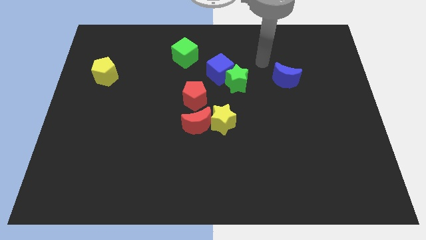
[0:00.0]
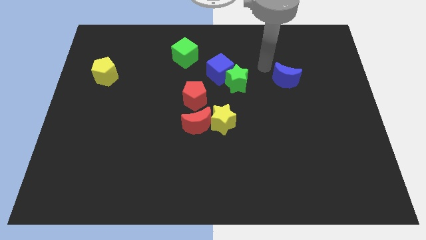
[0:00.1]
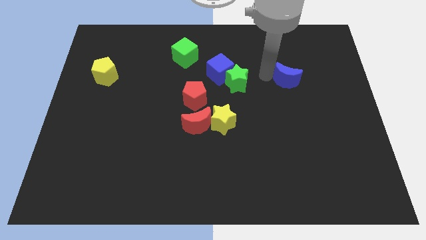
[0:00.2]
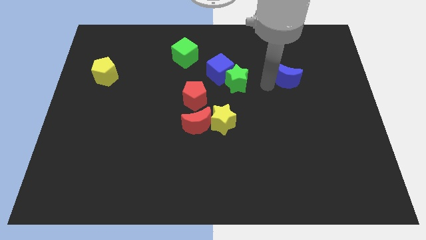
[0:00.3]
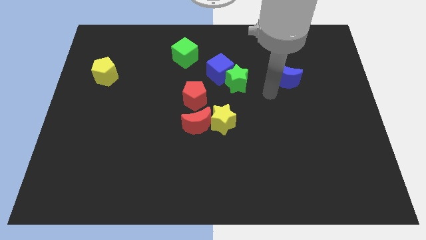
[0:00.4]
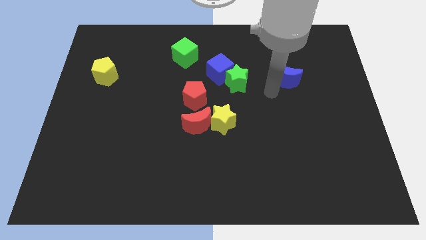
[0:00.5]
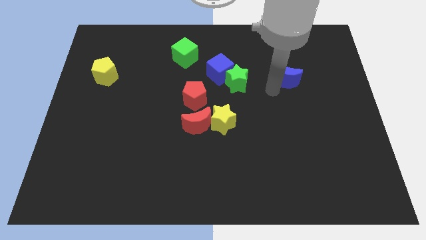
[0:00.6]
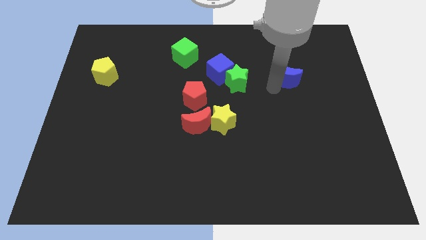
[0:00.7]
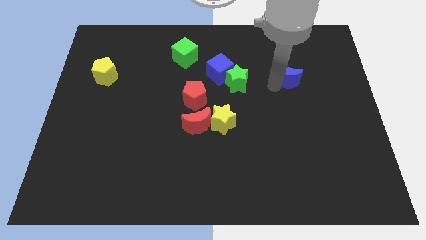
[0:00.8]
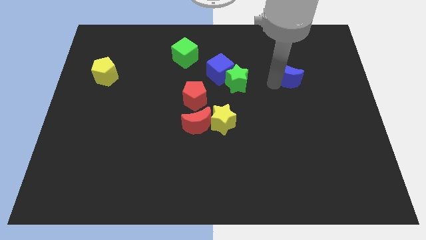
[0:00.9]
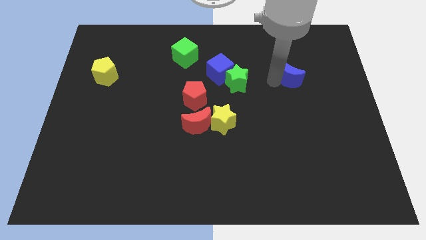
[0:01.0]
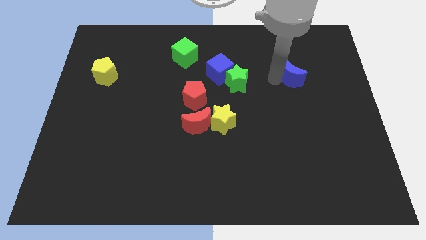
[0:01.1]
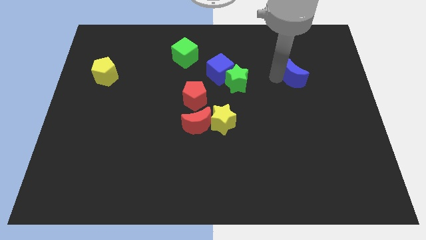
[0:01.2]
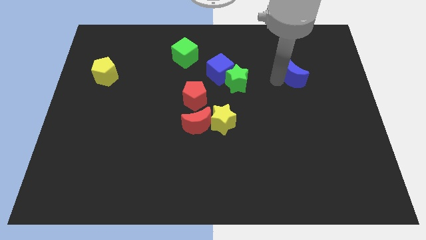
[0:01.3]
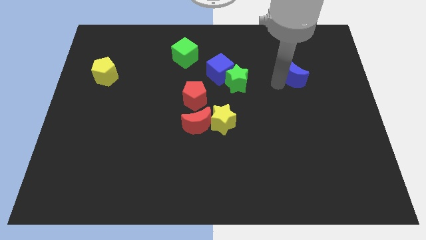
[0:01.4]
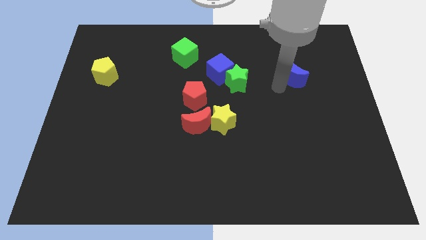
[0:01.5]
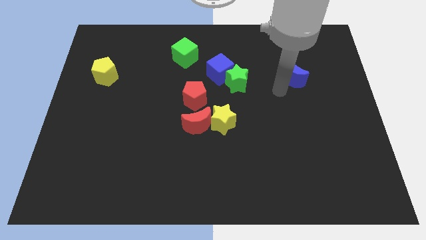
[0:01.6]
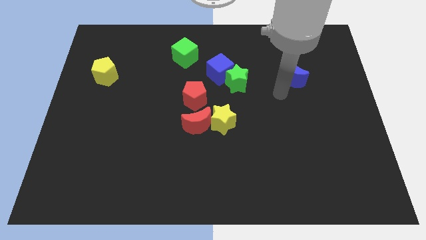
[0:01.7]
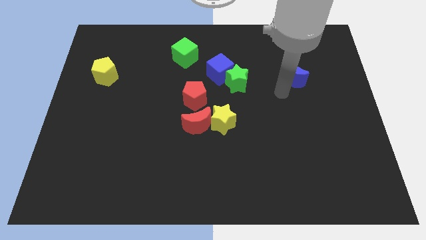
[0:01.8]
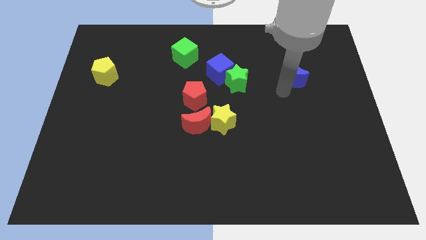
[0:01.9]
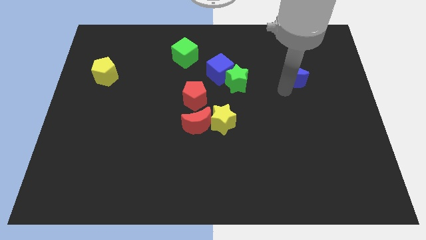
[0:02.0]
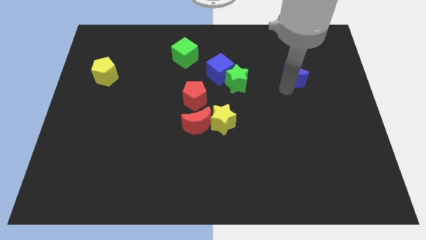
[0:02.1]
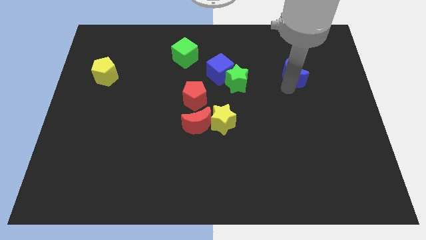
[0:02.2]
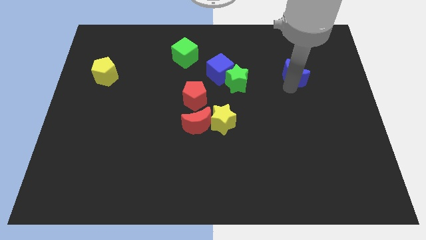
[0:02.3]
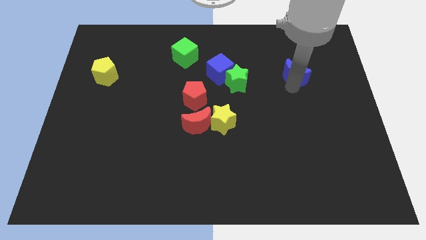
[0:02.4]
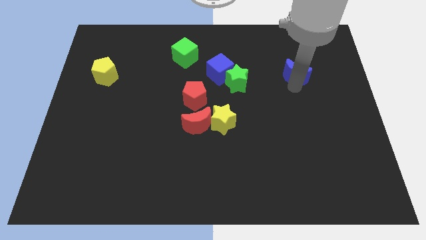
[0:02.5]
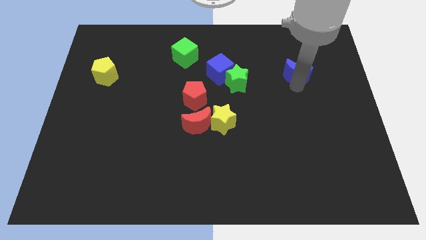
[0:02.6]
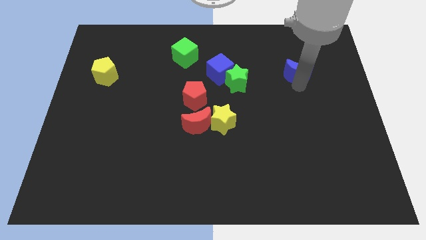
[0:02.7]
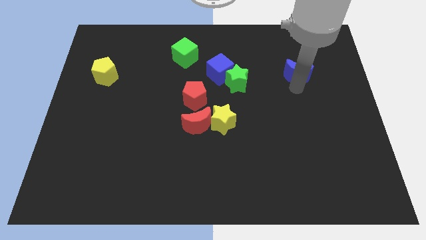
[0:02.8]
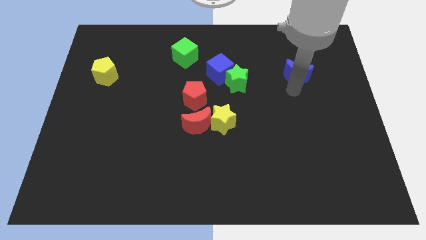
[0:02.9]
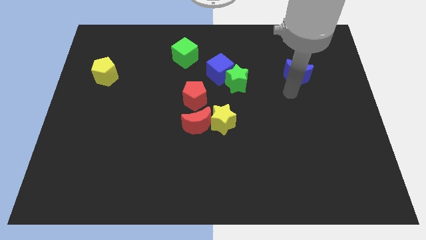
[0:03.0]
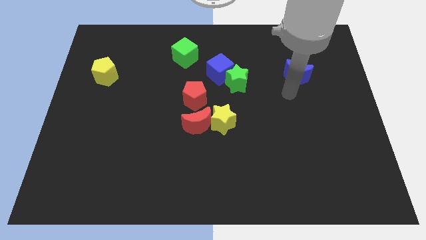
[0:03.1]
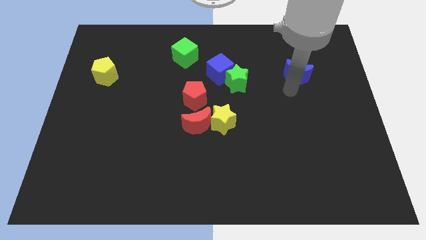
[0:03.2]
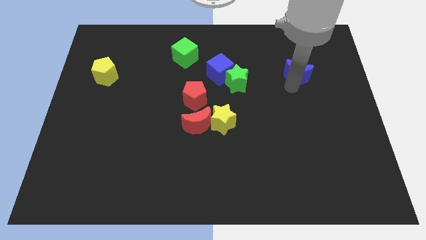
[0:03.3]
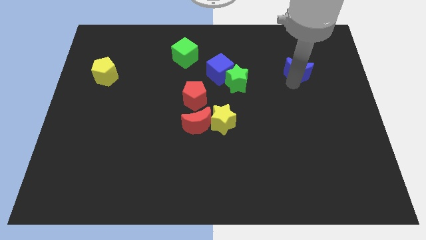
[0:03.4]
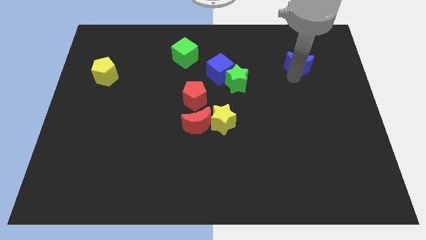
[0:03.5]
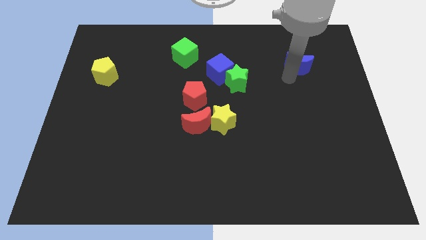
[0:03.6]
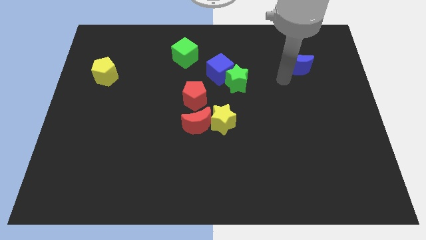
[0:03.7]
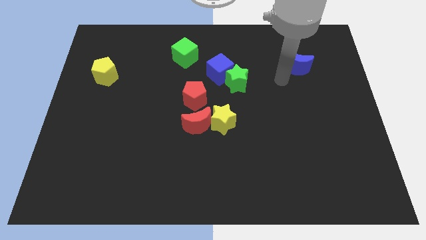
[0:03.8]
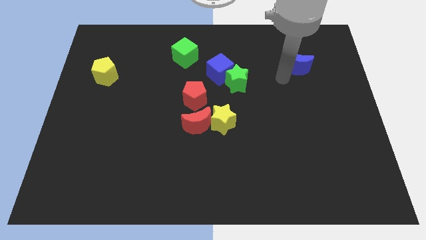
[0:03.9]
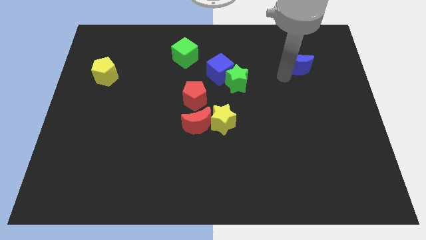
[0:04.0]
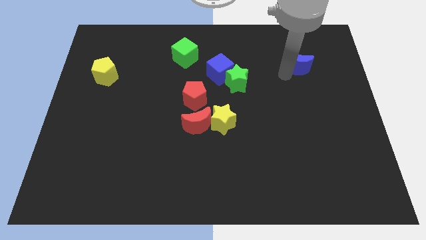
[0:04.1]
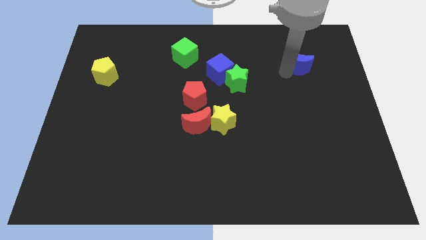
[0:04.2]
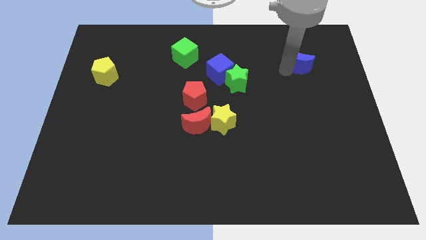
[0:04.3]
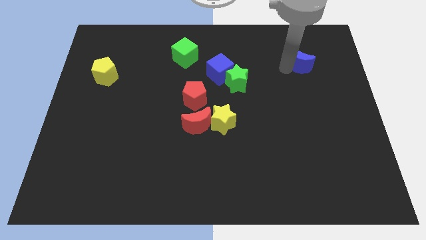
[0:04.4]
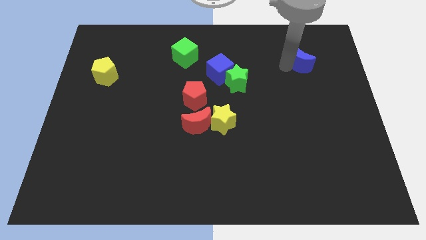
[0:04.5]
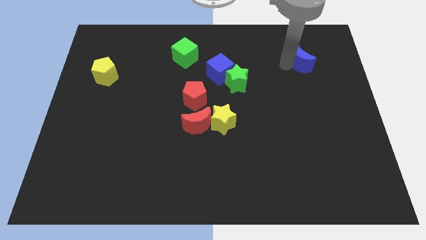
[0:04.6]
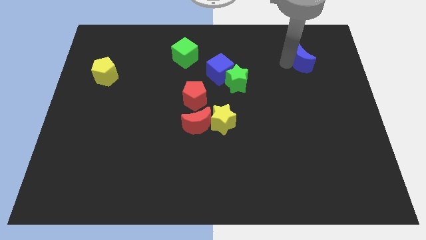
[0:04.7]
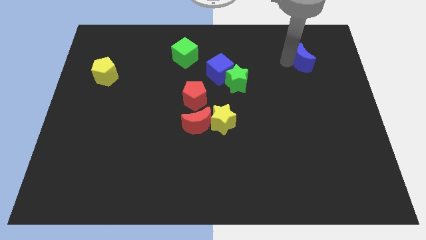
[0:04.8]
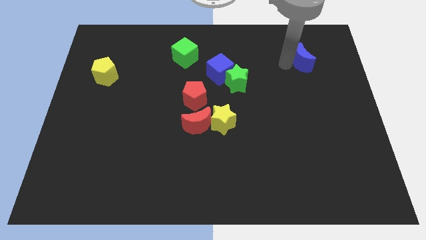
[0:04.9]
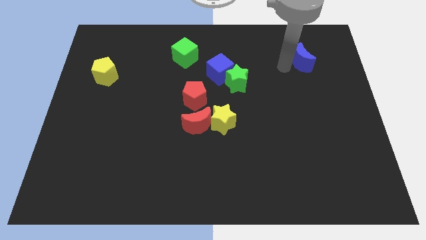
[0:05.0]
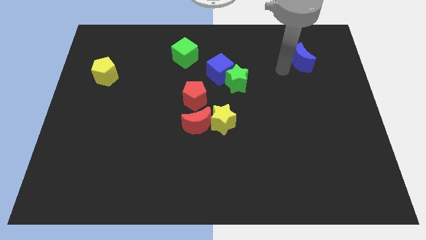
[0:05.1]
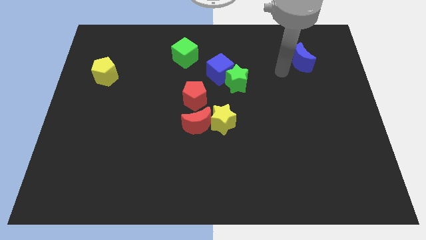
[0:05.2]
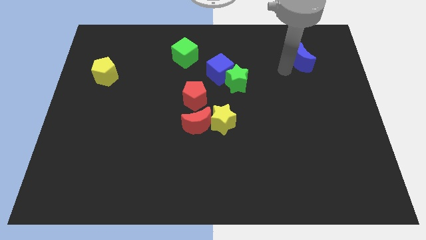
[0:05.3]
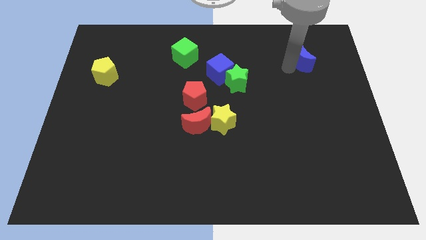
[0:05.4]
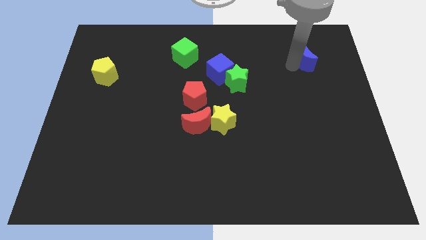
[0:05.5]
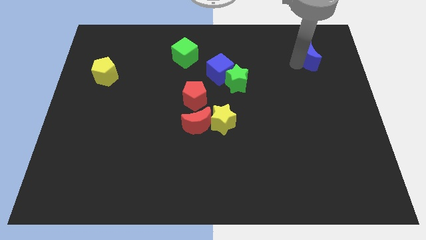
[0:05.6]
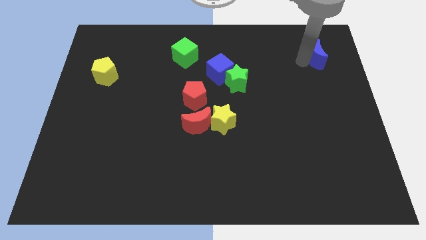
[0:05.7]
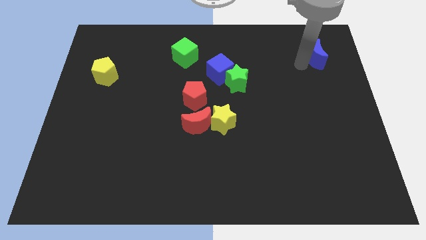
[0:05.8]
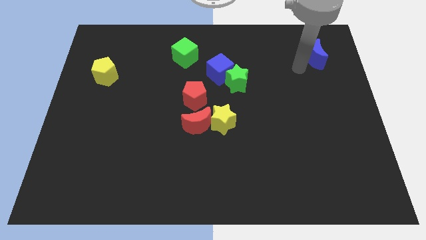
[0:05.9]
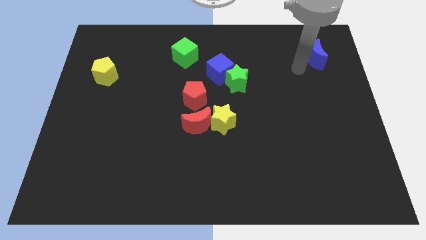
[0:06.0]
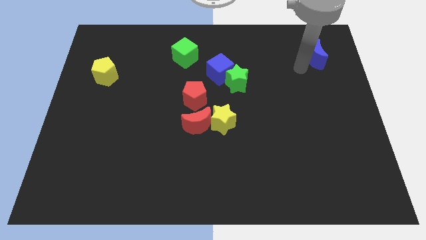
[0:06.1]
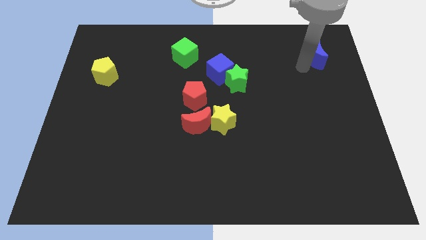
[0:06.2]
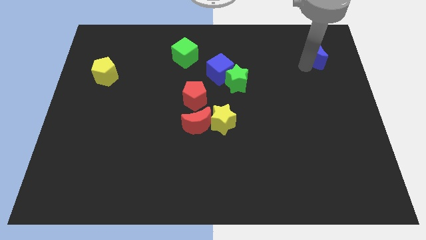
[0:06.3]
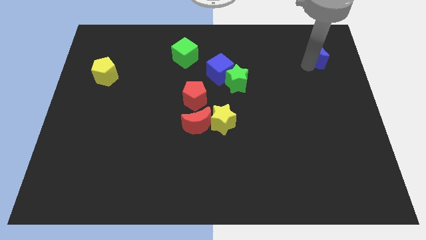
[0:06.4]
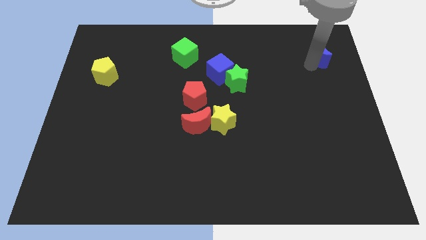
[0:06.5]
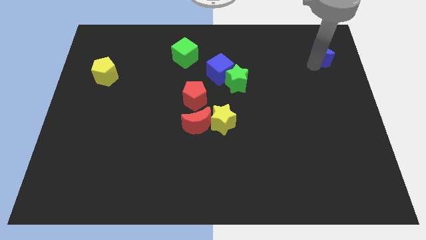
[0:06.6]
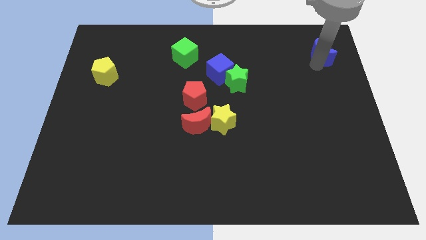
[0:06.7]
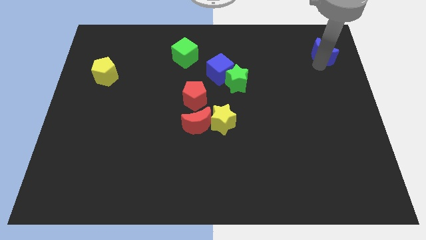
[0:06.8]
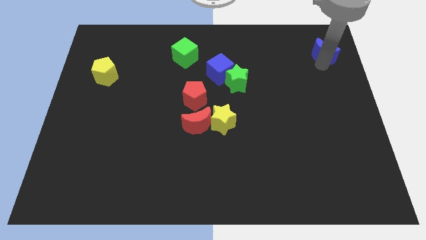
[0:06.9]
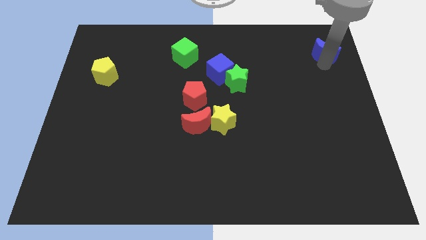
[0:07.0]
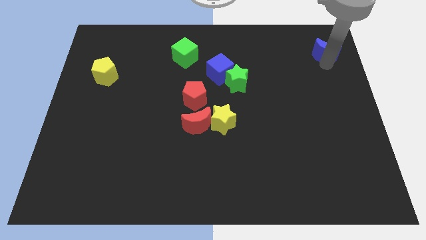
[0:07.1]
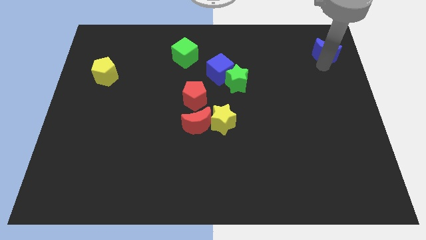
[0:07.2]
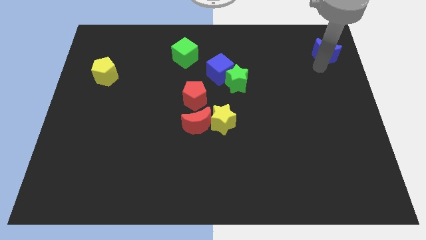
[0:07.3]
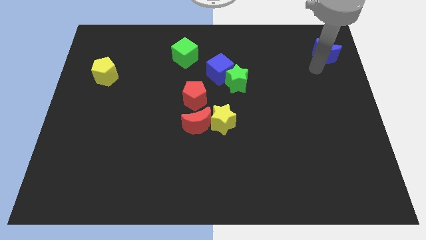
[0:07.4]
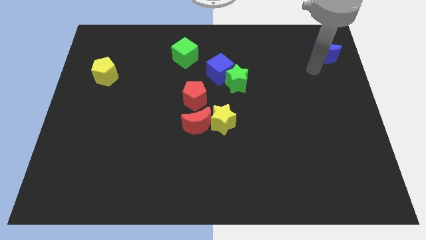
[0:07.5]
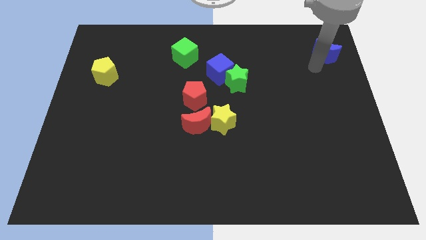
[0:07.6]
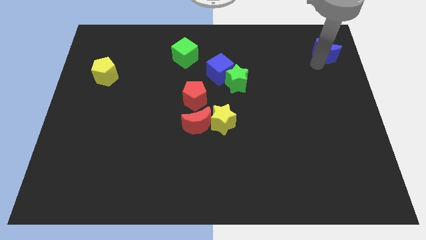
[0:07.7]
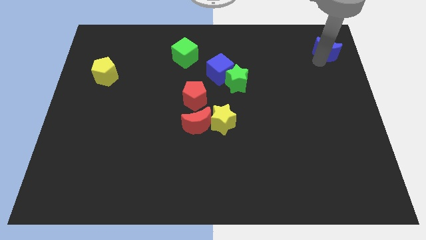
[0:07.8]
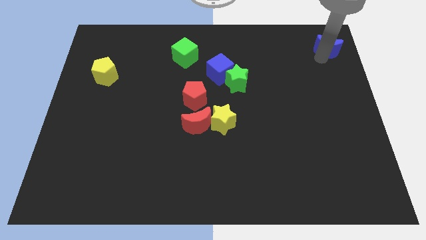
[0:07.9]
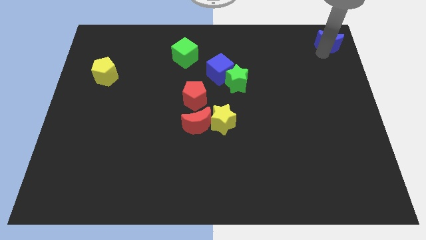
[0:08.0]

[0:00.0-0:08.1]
move the blue moon to the top right
